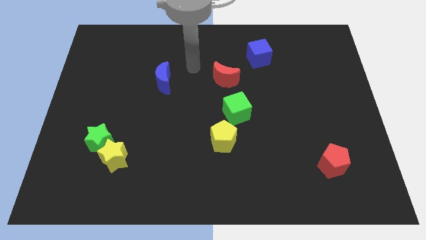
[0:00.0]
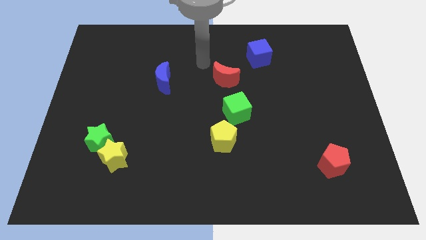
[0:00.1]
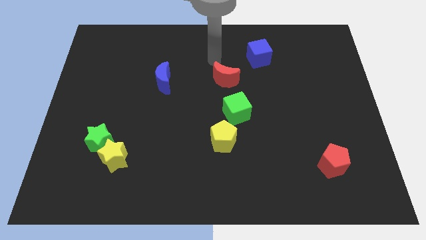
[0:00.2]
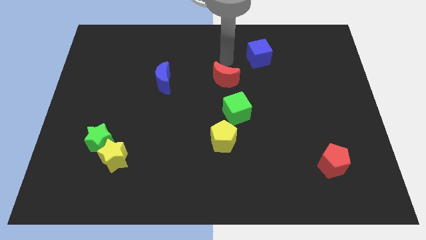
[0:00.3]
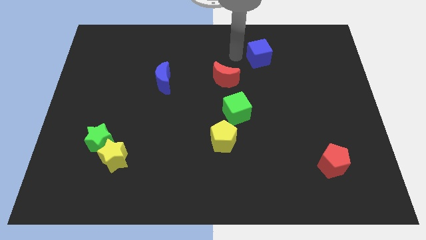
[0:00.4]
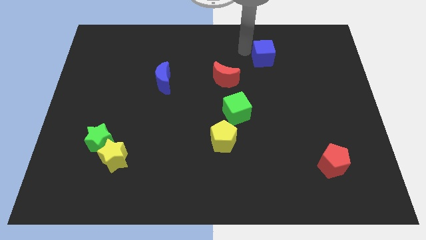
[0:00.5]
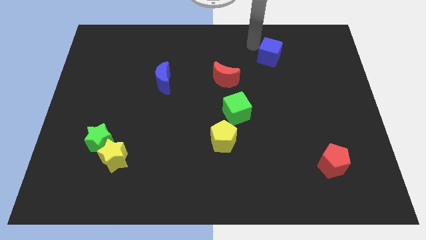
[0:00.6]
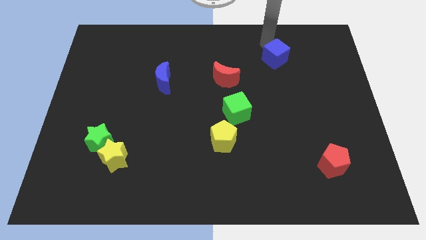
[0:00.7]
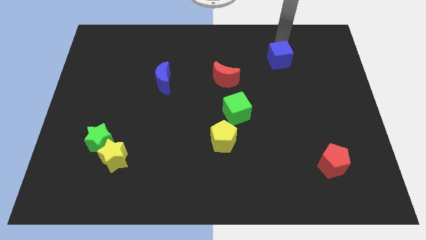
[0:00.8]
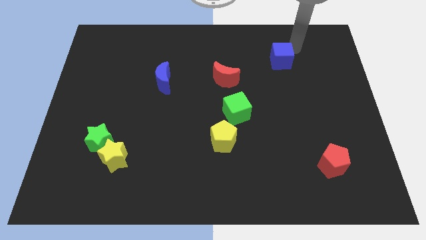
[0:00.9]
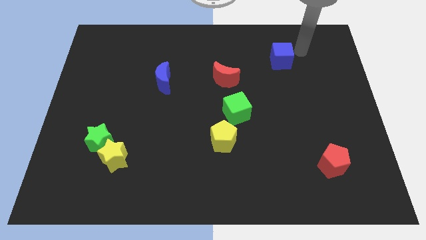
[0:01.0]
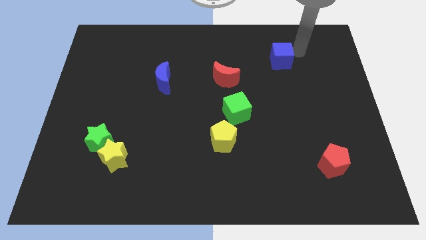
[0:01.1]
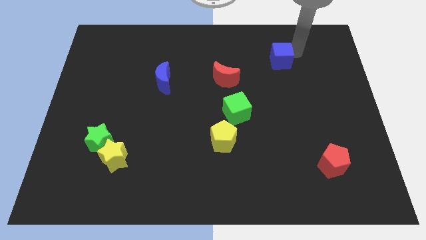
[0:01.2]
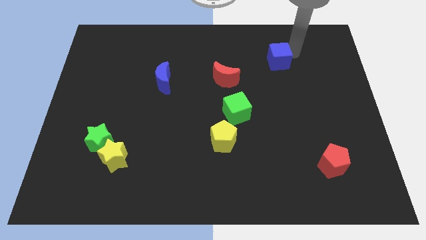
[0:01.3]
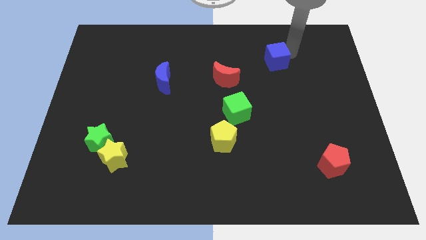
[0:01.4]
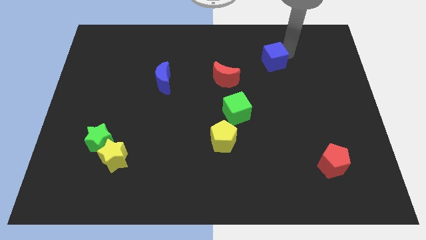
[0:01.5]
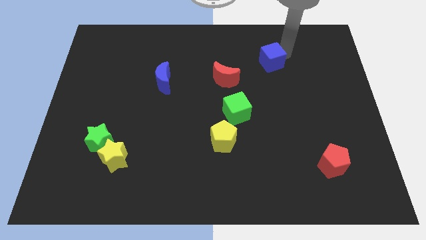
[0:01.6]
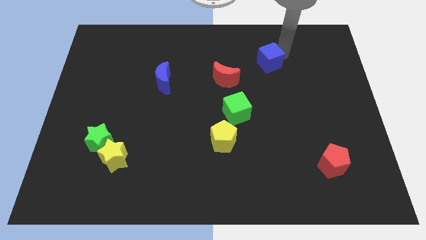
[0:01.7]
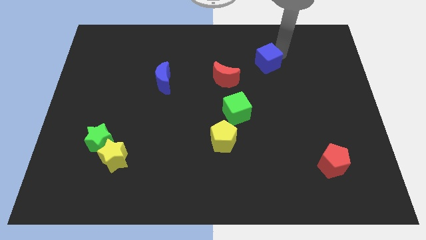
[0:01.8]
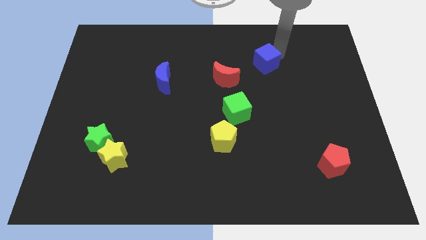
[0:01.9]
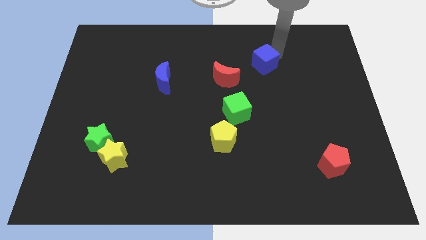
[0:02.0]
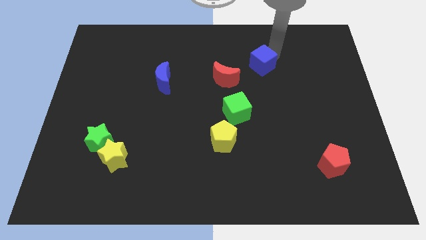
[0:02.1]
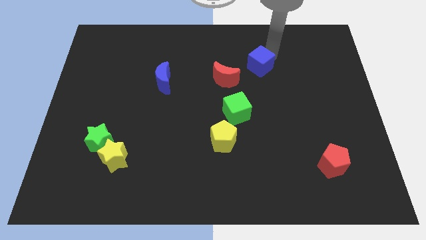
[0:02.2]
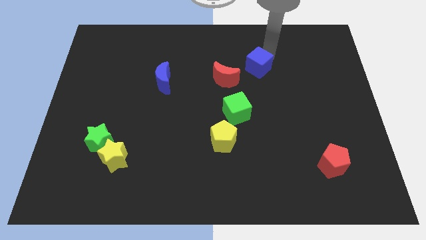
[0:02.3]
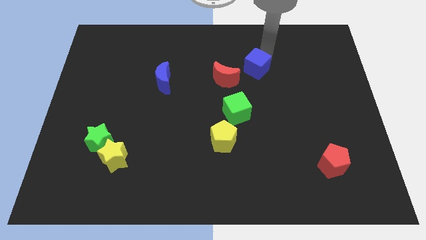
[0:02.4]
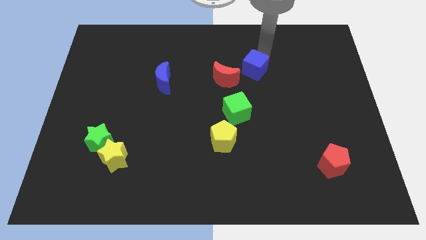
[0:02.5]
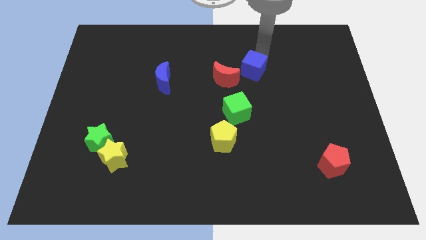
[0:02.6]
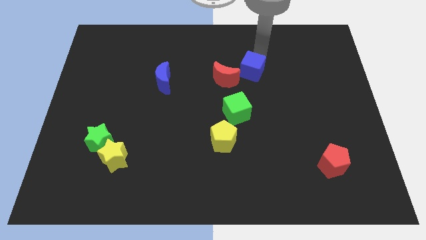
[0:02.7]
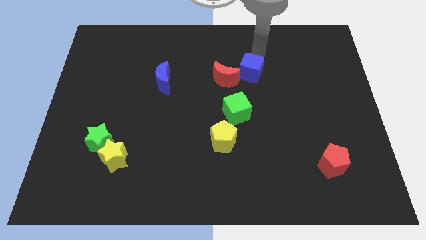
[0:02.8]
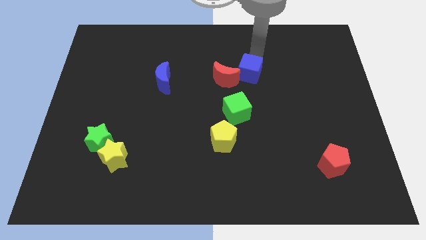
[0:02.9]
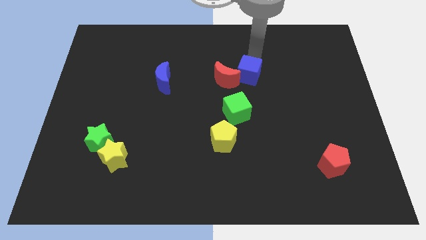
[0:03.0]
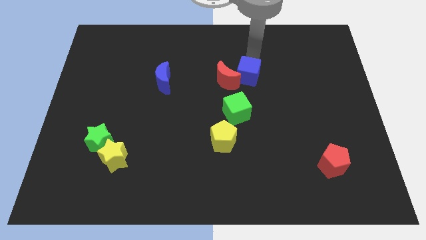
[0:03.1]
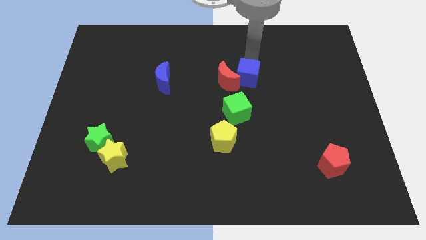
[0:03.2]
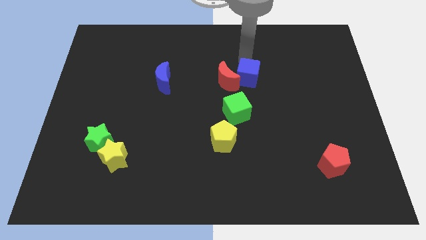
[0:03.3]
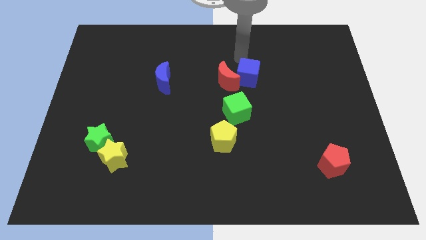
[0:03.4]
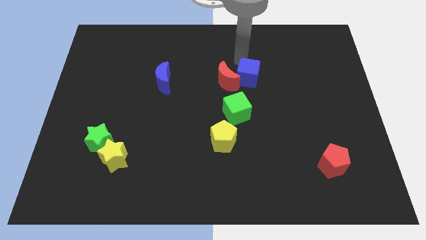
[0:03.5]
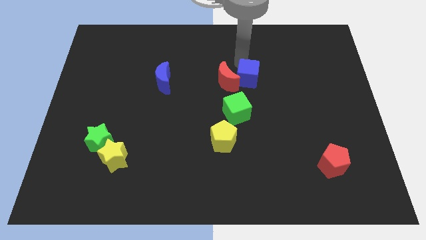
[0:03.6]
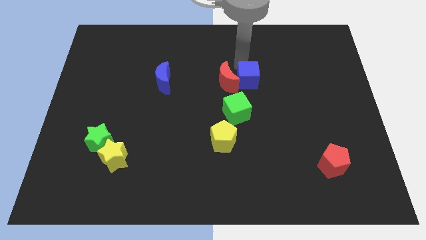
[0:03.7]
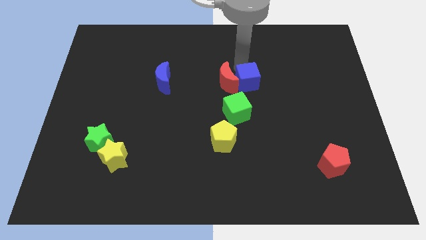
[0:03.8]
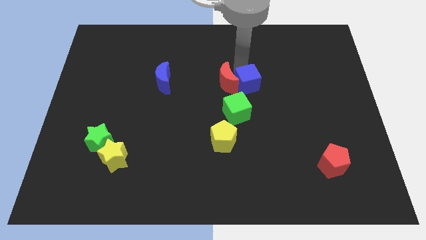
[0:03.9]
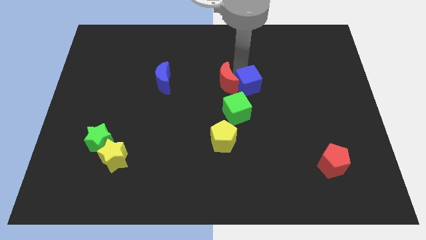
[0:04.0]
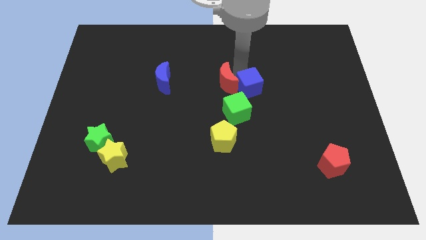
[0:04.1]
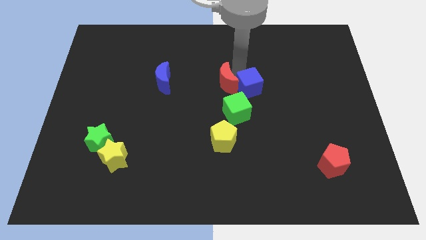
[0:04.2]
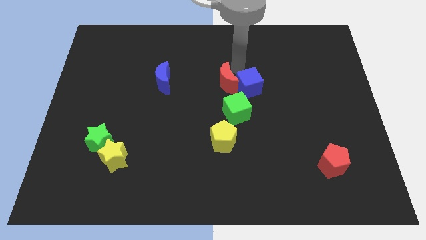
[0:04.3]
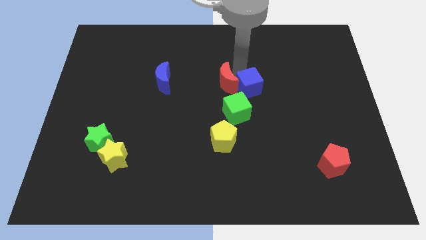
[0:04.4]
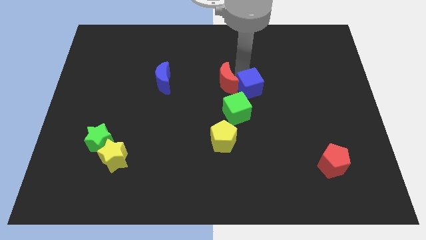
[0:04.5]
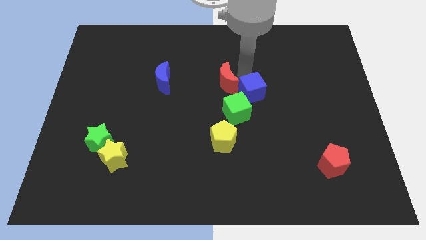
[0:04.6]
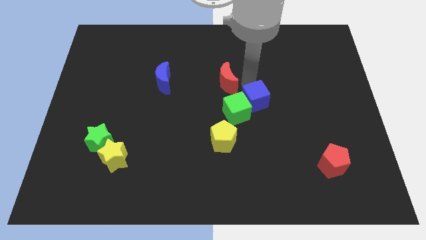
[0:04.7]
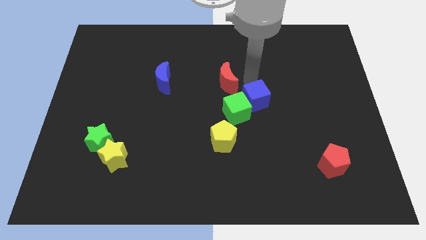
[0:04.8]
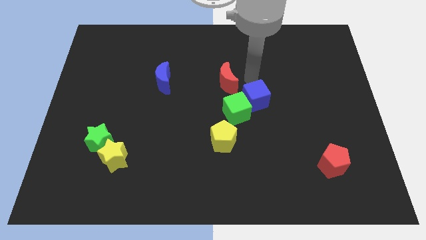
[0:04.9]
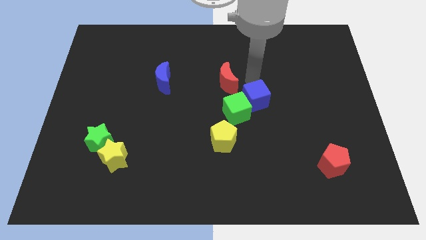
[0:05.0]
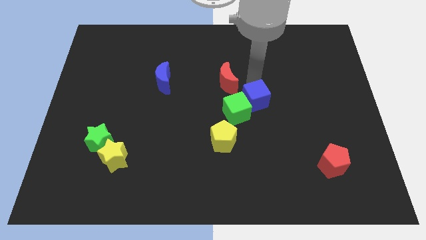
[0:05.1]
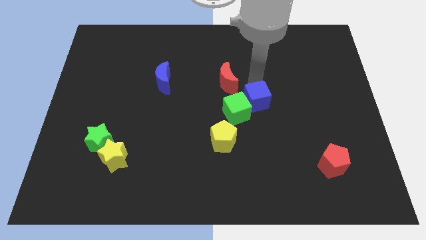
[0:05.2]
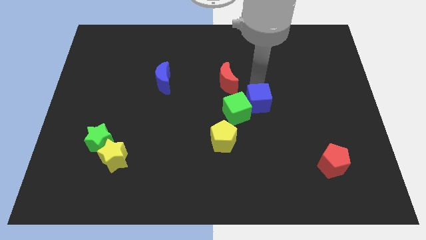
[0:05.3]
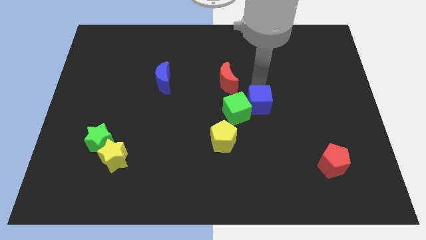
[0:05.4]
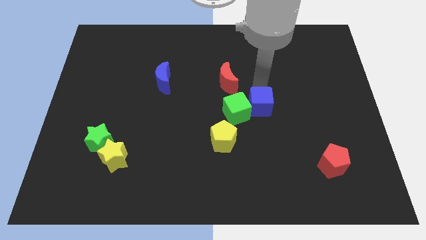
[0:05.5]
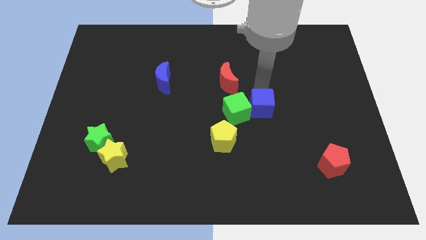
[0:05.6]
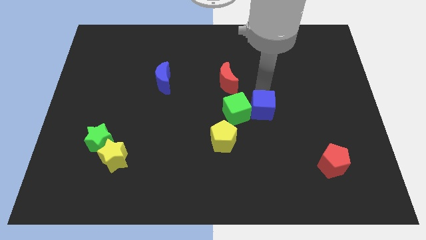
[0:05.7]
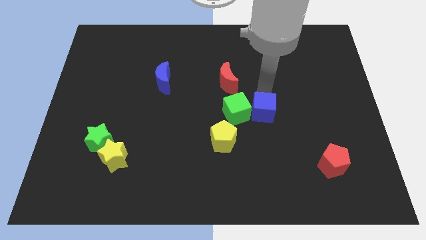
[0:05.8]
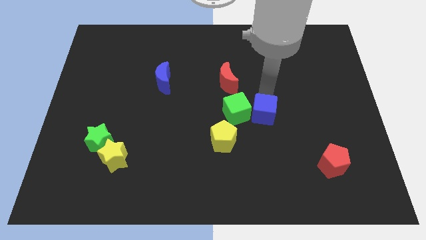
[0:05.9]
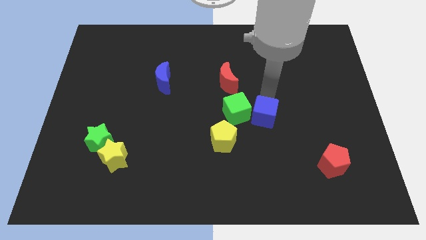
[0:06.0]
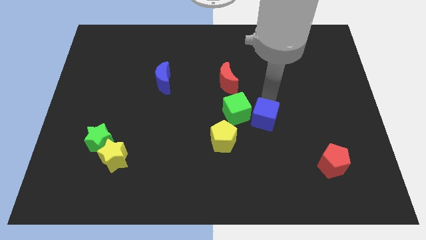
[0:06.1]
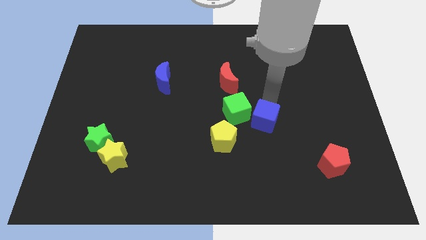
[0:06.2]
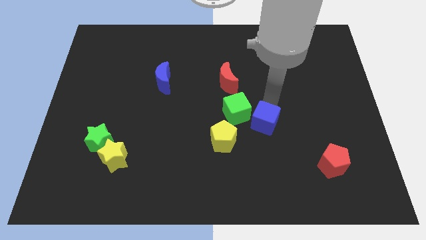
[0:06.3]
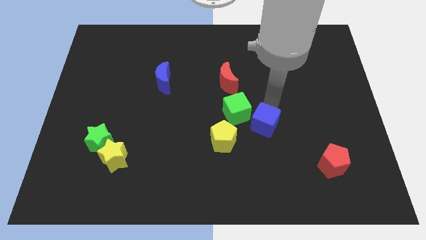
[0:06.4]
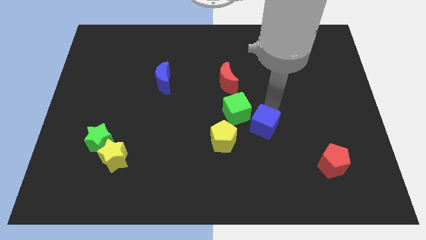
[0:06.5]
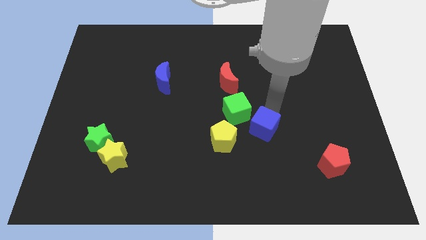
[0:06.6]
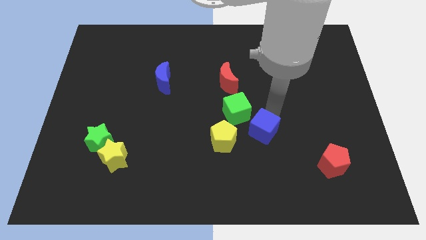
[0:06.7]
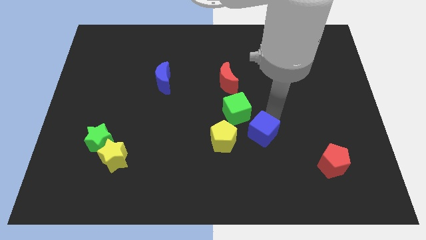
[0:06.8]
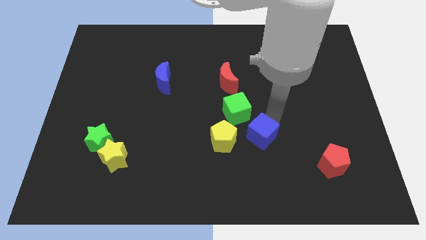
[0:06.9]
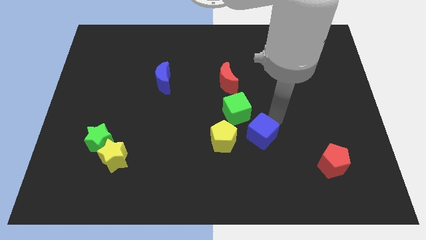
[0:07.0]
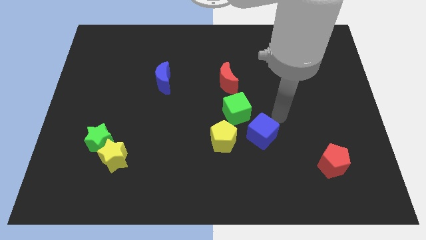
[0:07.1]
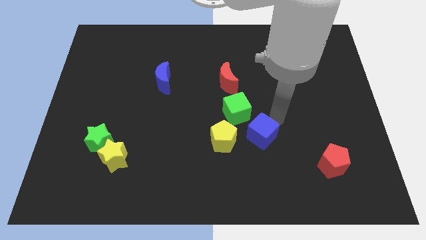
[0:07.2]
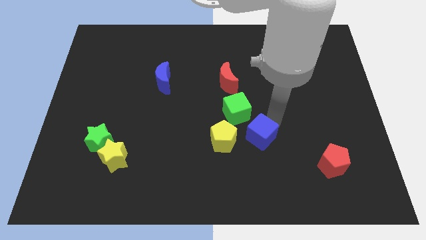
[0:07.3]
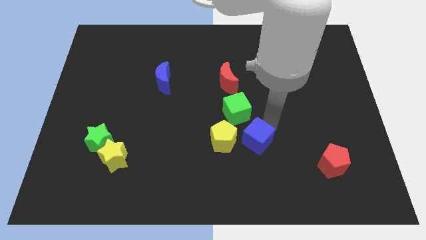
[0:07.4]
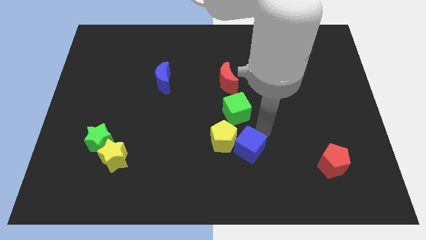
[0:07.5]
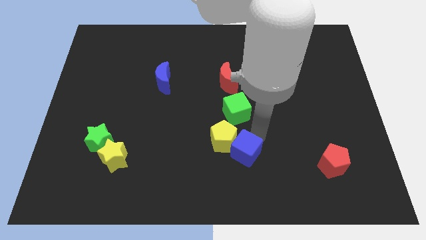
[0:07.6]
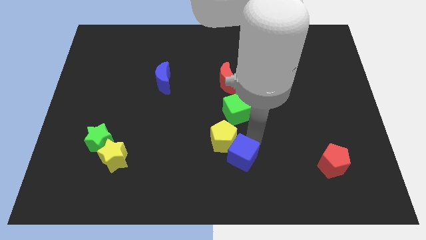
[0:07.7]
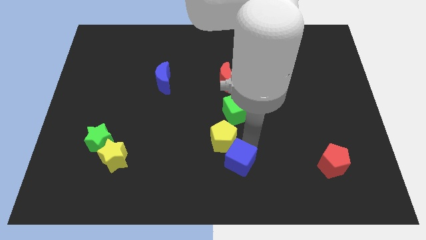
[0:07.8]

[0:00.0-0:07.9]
slide the blue cube to the bottom side
